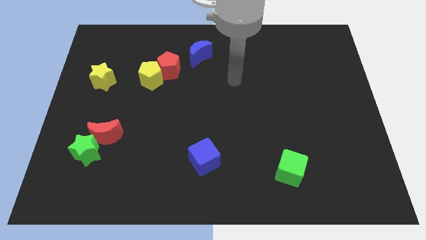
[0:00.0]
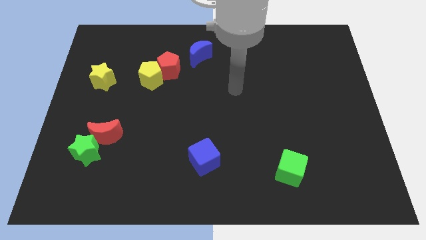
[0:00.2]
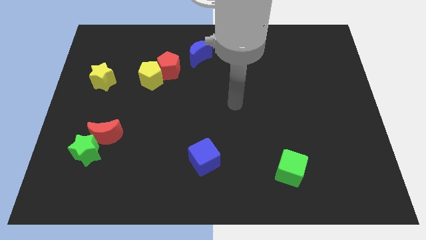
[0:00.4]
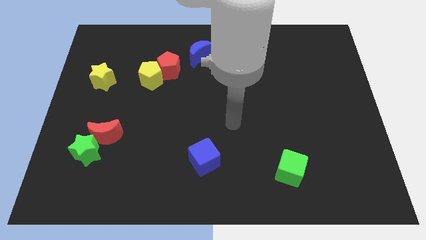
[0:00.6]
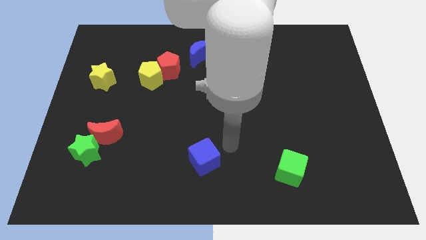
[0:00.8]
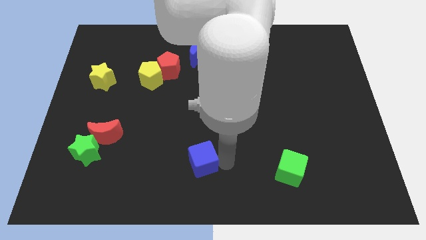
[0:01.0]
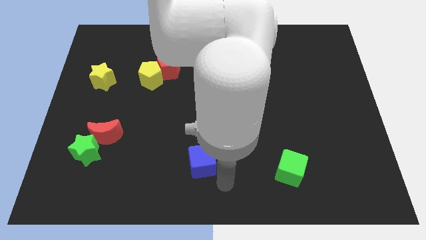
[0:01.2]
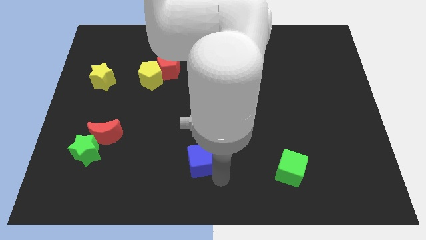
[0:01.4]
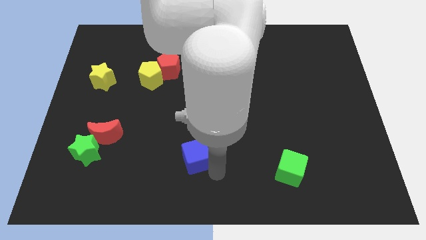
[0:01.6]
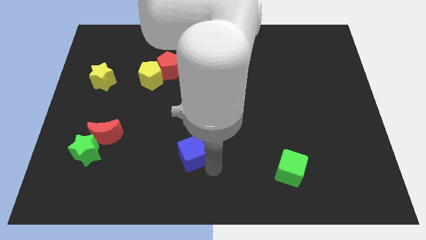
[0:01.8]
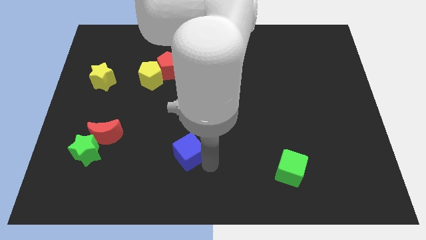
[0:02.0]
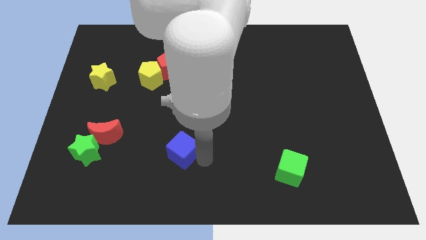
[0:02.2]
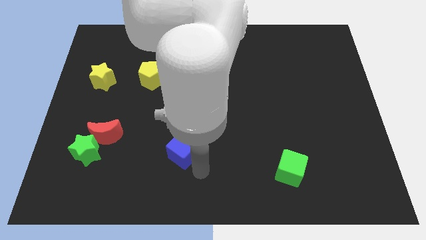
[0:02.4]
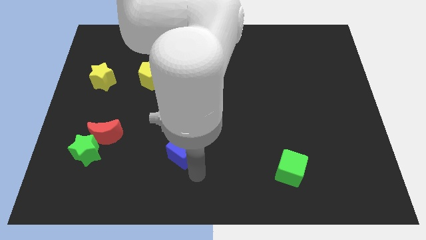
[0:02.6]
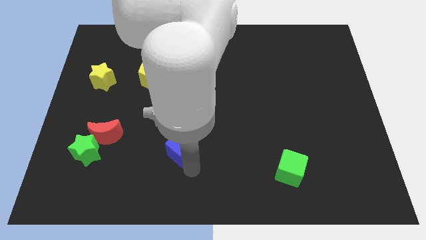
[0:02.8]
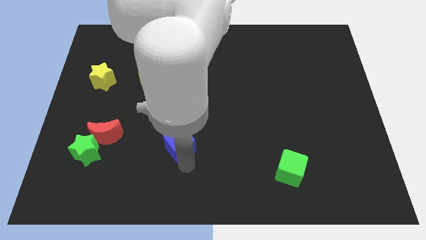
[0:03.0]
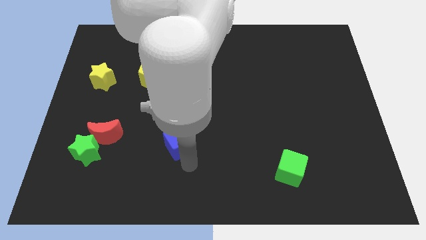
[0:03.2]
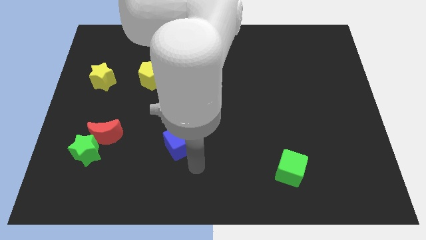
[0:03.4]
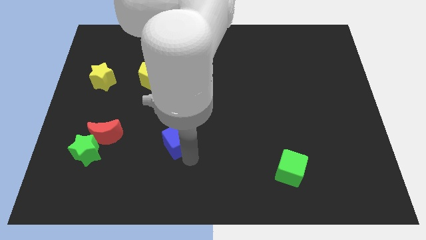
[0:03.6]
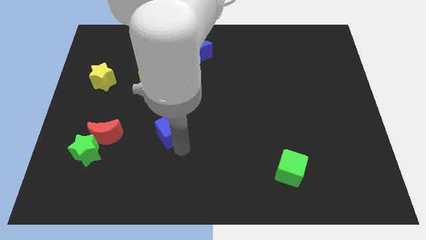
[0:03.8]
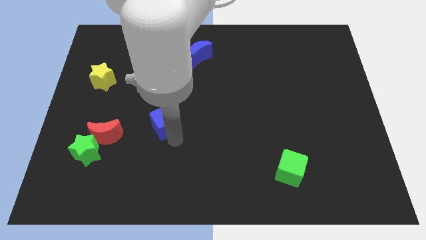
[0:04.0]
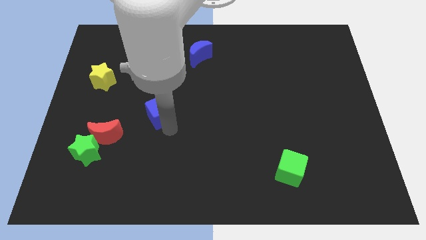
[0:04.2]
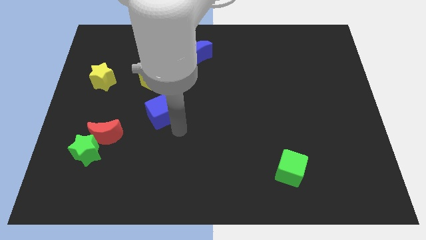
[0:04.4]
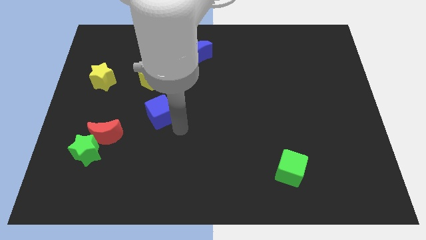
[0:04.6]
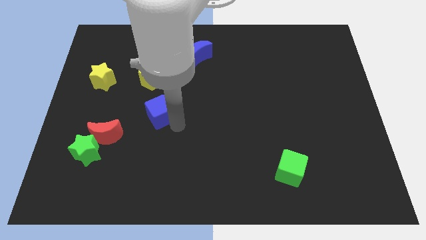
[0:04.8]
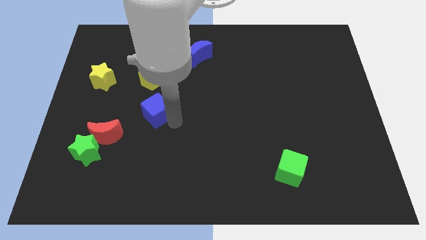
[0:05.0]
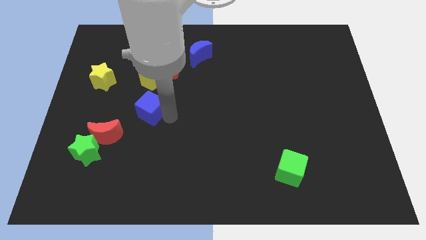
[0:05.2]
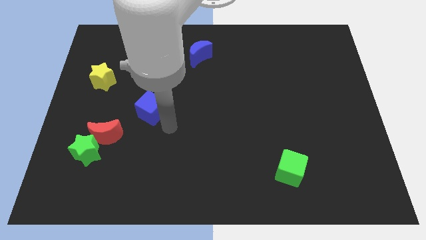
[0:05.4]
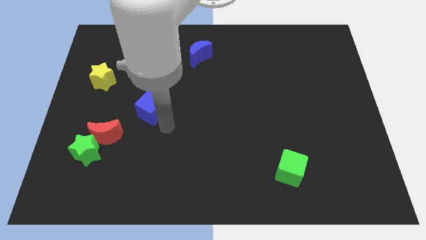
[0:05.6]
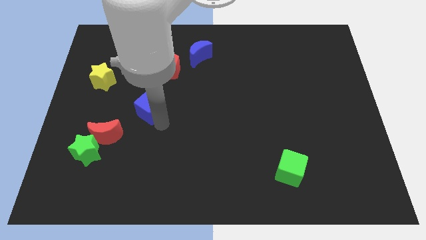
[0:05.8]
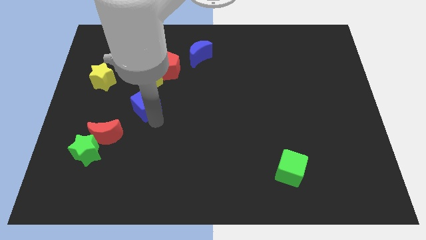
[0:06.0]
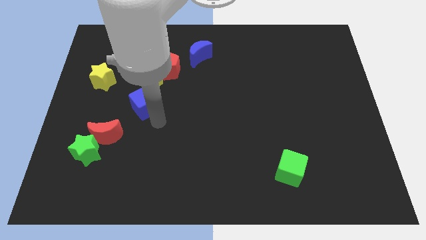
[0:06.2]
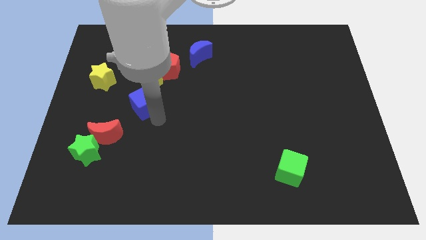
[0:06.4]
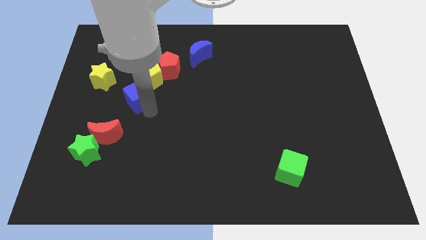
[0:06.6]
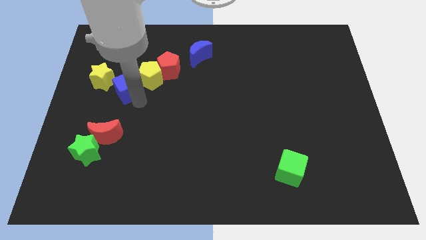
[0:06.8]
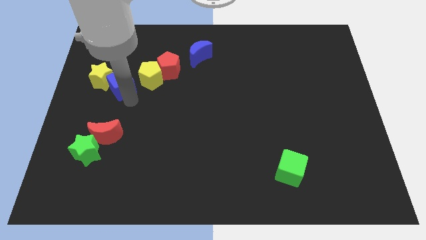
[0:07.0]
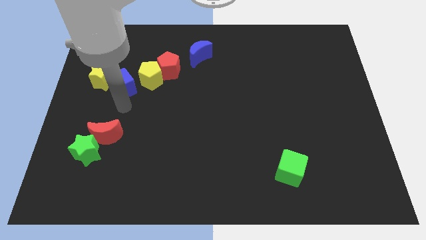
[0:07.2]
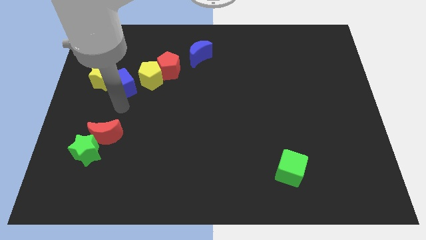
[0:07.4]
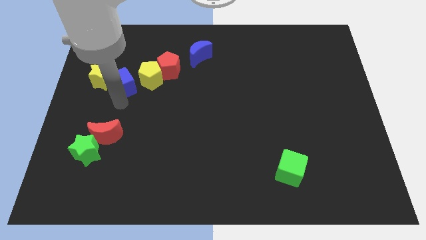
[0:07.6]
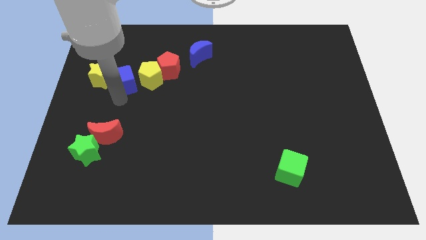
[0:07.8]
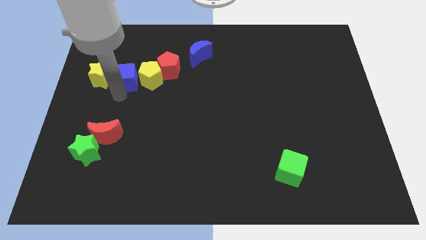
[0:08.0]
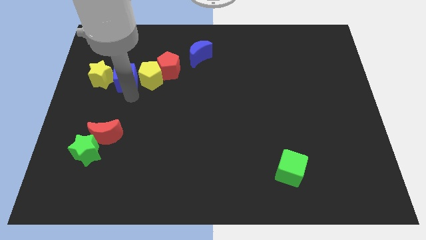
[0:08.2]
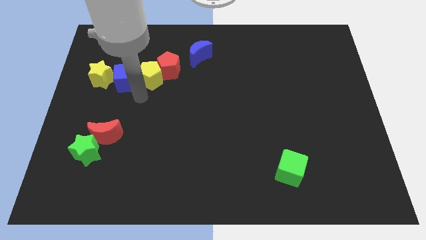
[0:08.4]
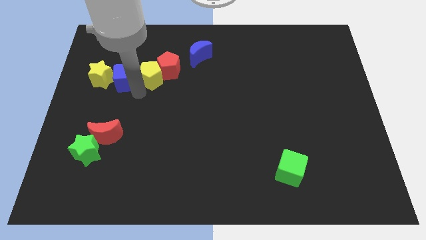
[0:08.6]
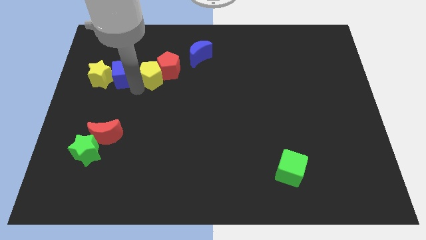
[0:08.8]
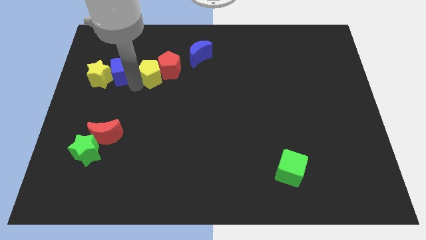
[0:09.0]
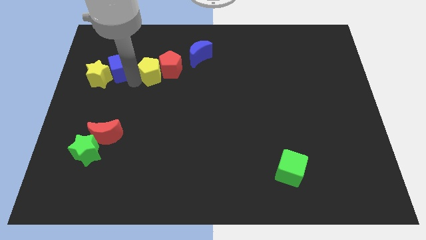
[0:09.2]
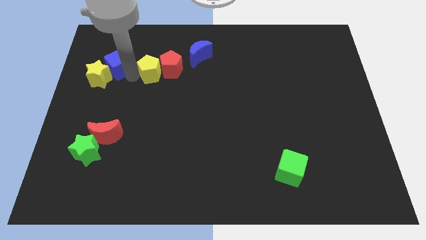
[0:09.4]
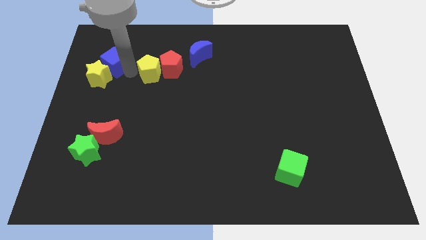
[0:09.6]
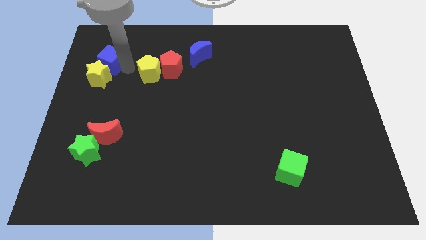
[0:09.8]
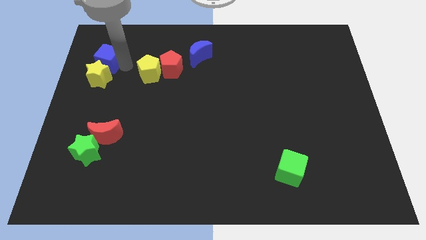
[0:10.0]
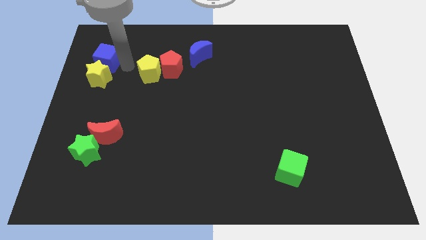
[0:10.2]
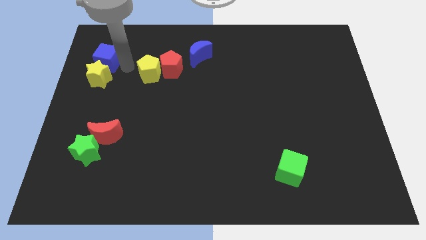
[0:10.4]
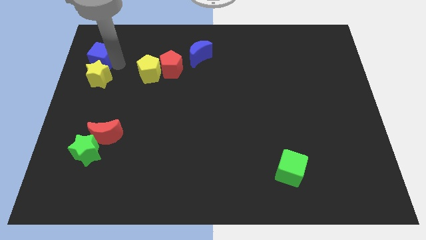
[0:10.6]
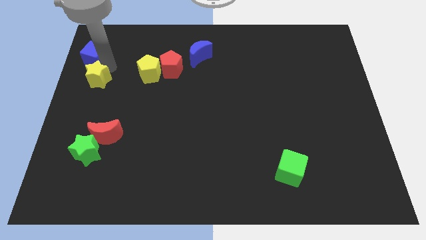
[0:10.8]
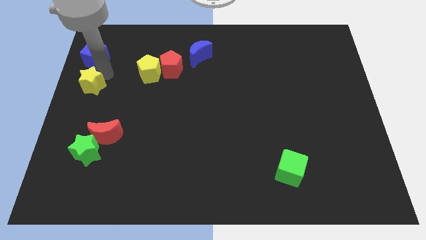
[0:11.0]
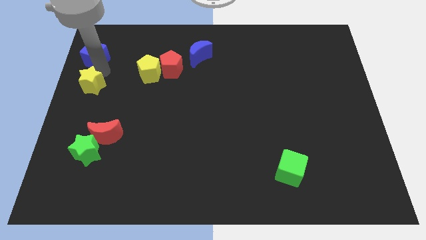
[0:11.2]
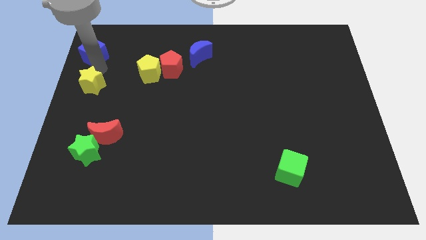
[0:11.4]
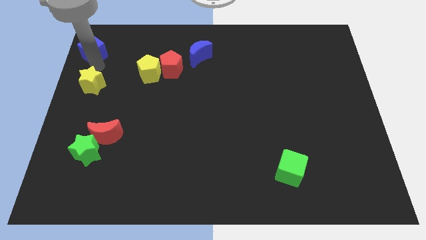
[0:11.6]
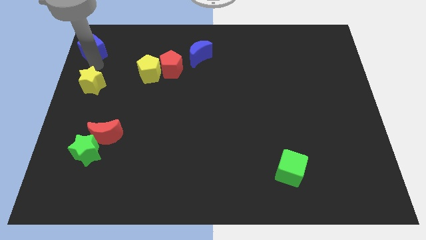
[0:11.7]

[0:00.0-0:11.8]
move the blue cube to the upper left corner

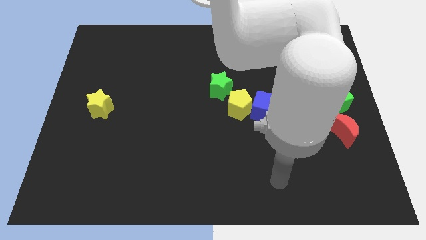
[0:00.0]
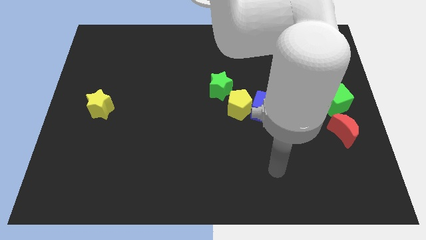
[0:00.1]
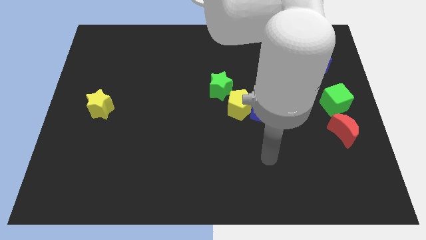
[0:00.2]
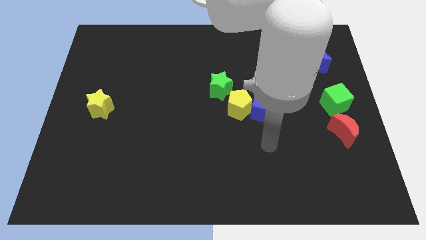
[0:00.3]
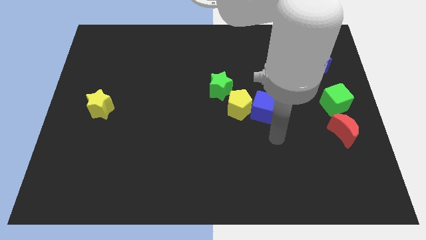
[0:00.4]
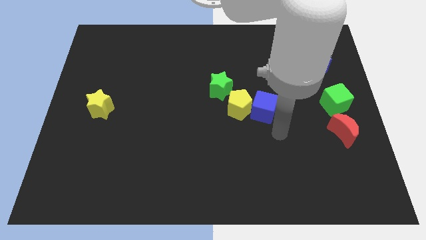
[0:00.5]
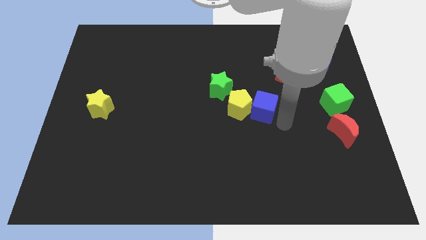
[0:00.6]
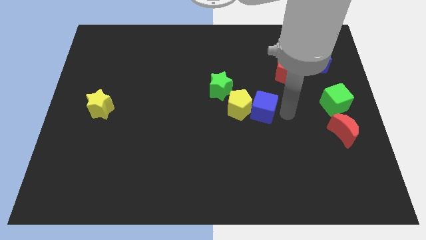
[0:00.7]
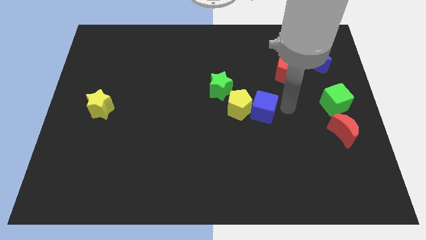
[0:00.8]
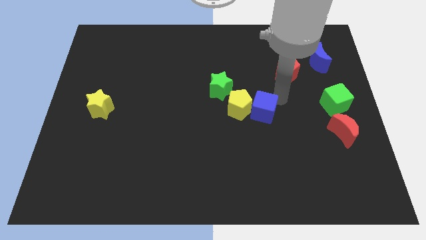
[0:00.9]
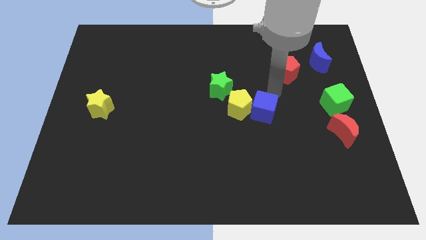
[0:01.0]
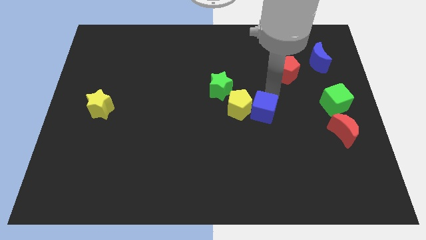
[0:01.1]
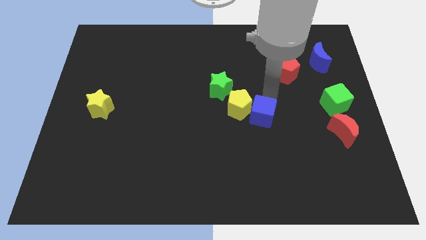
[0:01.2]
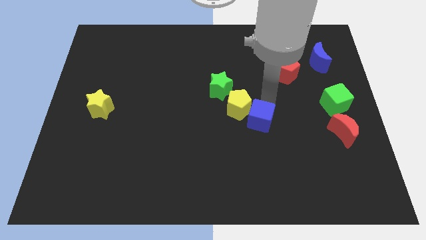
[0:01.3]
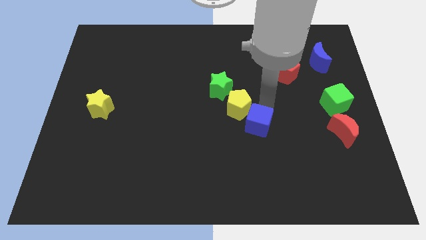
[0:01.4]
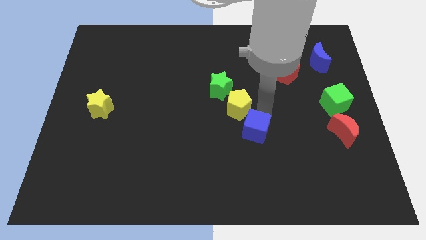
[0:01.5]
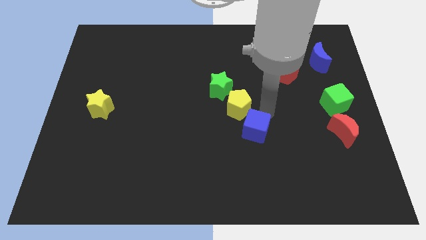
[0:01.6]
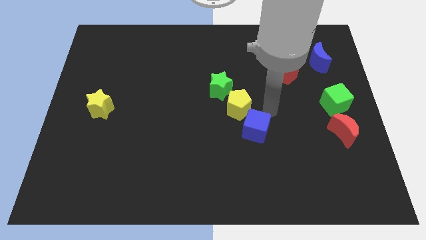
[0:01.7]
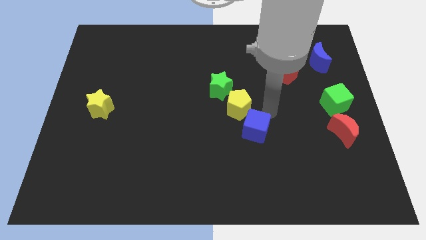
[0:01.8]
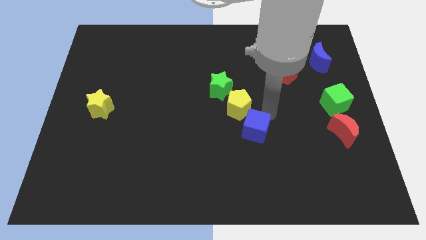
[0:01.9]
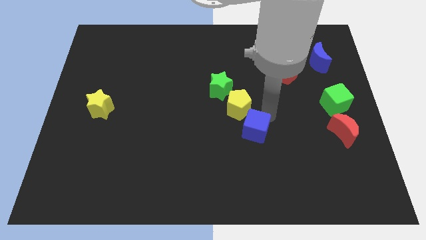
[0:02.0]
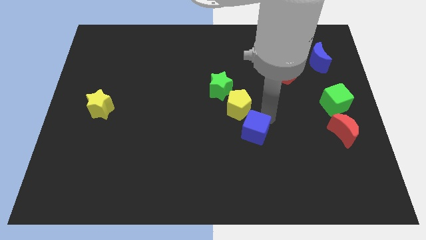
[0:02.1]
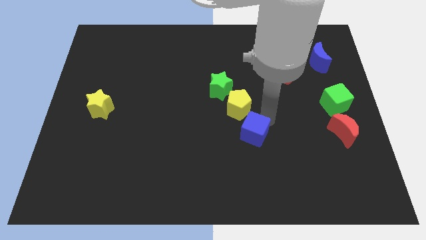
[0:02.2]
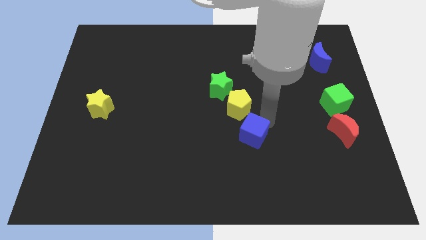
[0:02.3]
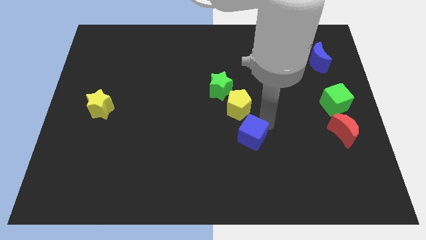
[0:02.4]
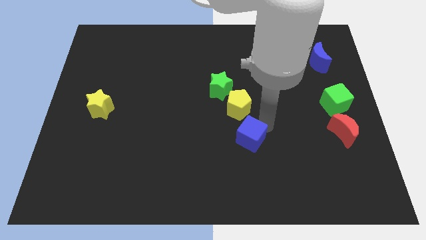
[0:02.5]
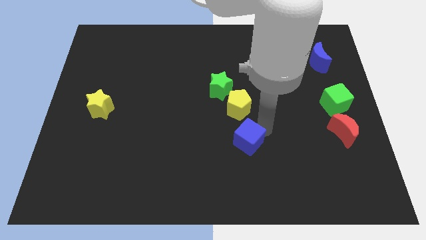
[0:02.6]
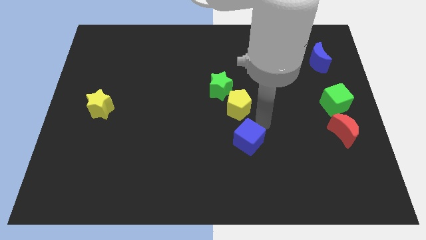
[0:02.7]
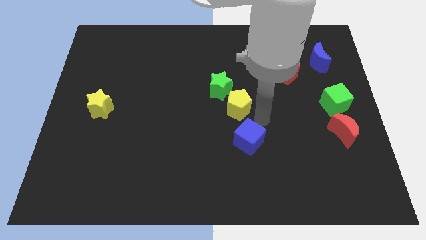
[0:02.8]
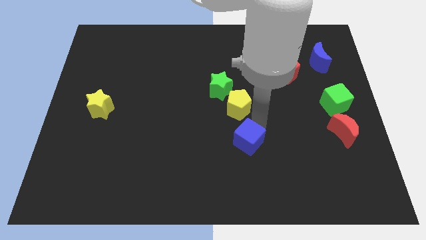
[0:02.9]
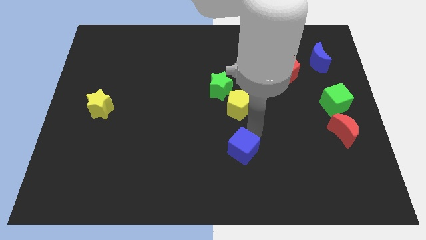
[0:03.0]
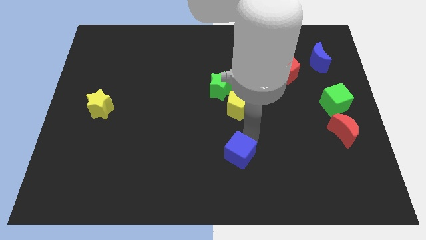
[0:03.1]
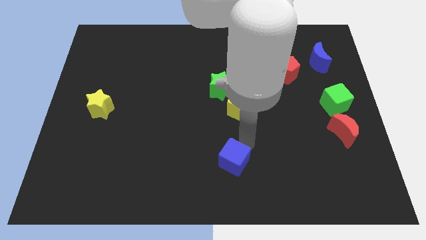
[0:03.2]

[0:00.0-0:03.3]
move the blue cube to the bottom side
